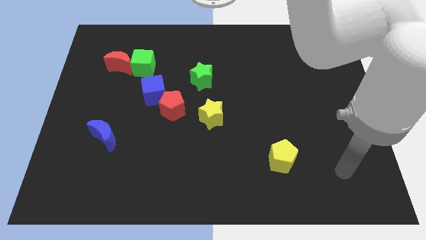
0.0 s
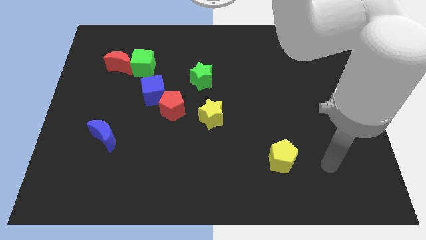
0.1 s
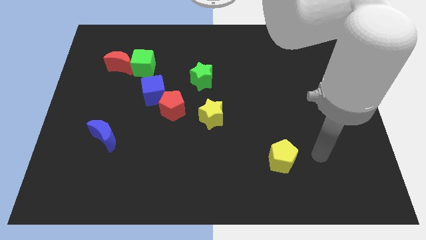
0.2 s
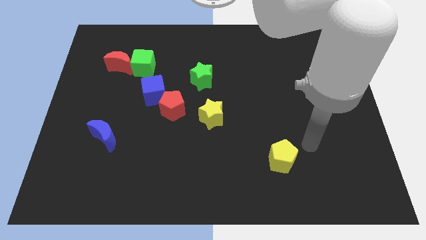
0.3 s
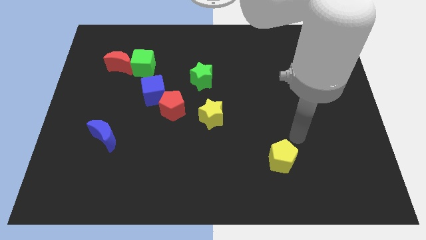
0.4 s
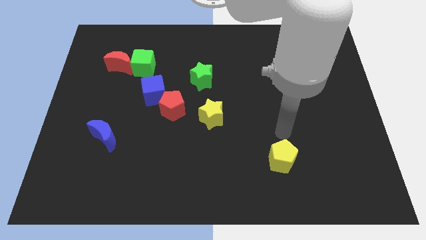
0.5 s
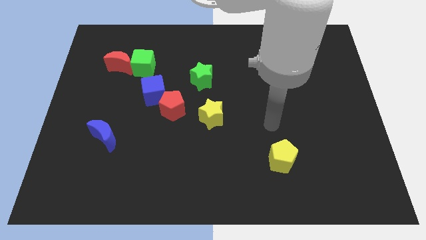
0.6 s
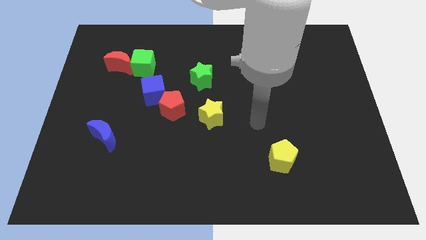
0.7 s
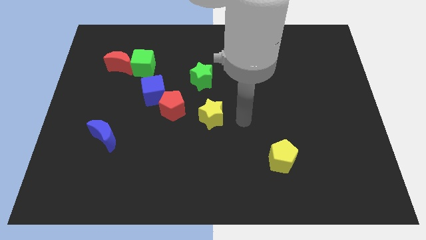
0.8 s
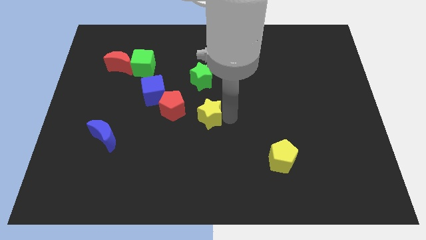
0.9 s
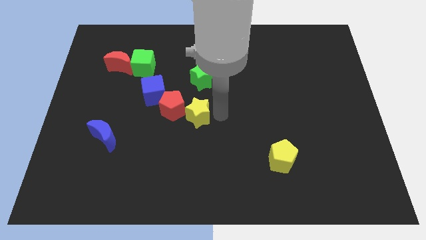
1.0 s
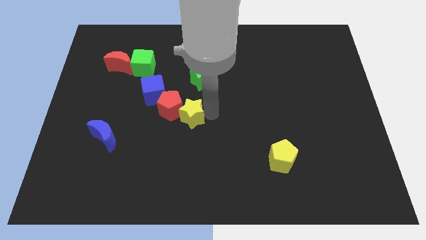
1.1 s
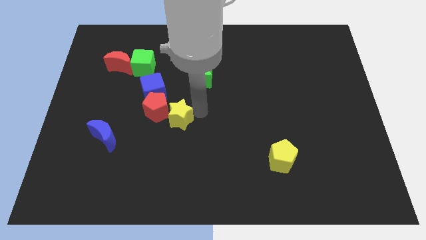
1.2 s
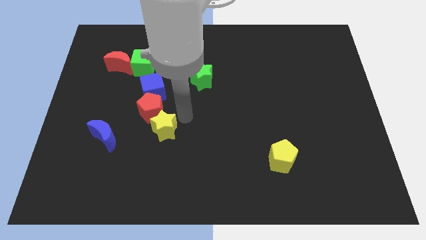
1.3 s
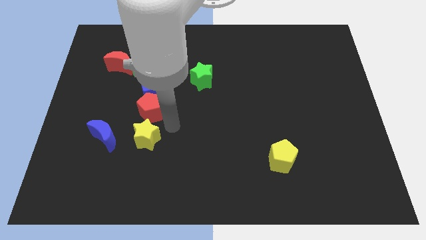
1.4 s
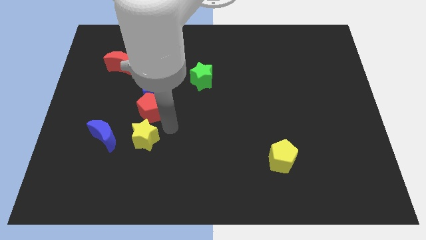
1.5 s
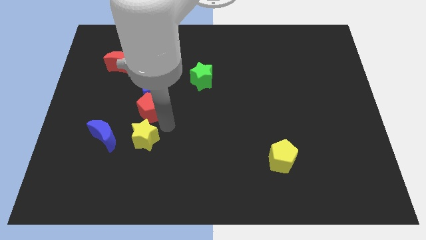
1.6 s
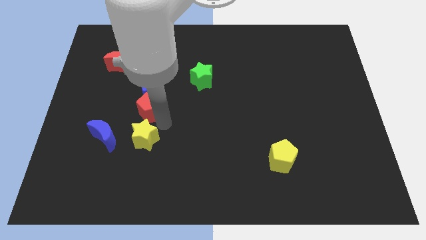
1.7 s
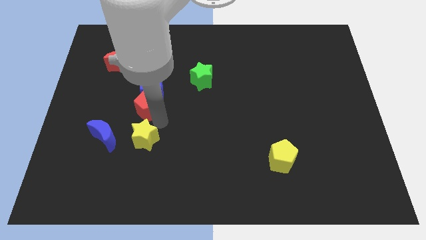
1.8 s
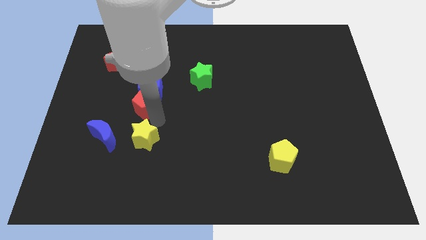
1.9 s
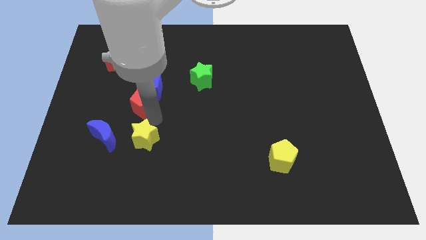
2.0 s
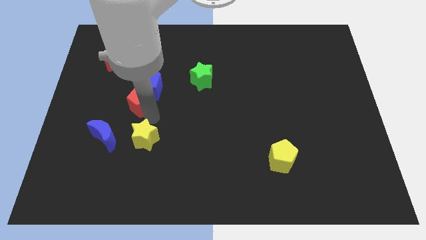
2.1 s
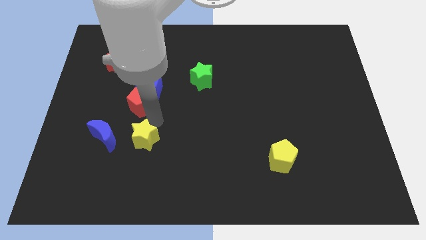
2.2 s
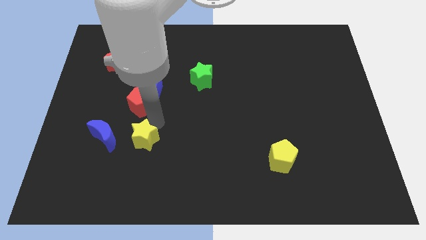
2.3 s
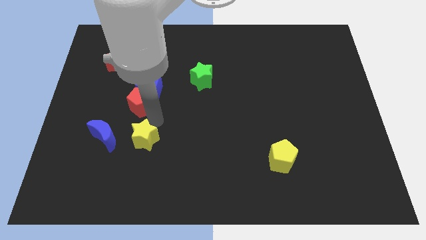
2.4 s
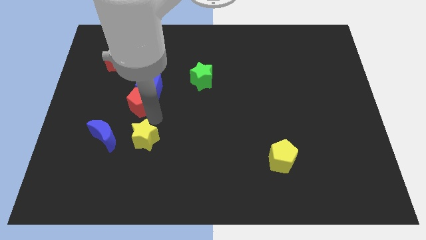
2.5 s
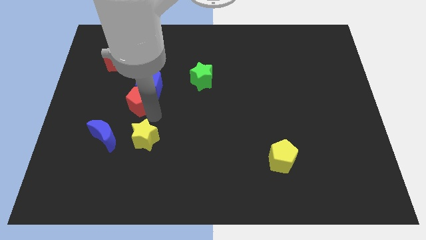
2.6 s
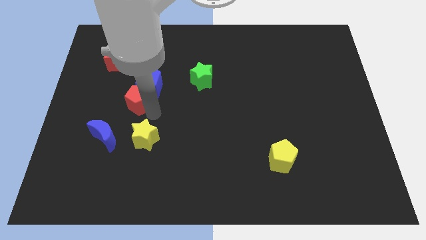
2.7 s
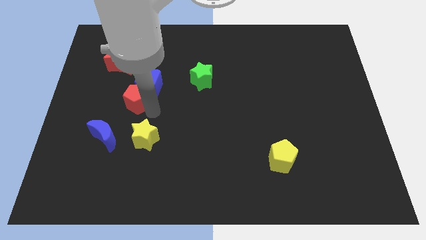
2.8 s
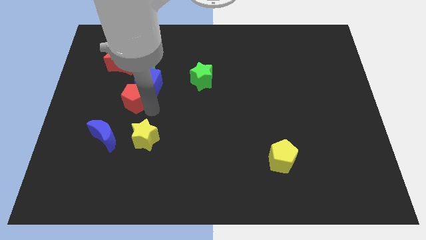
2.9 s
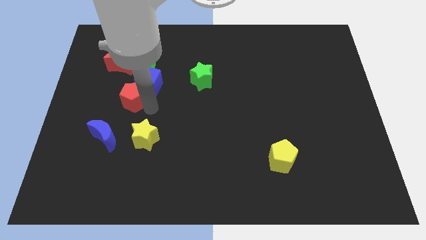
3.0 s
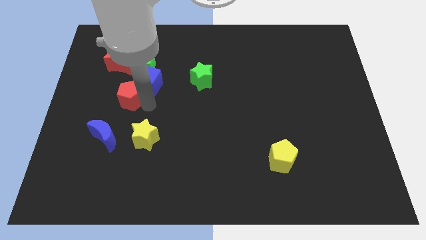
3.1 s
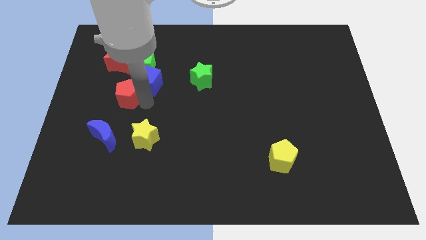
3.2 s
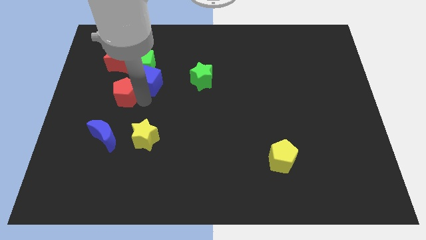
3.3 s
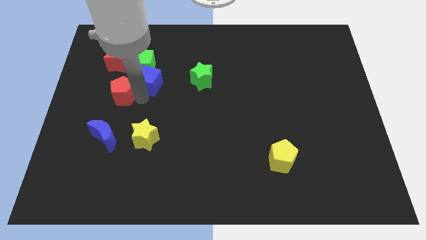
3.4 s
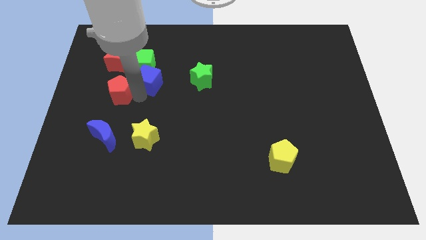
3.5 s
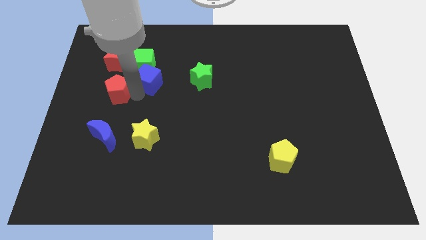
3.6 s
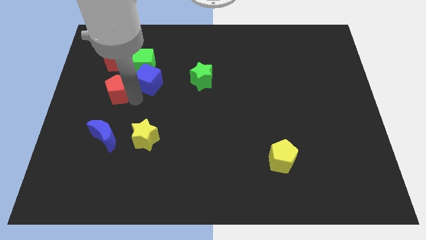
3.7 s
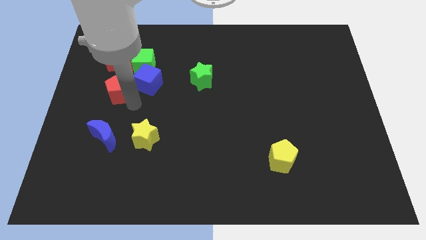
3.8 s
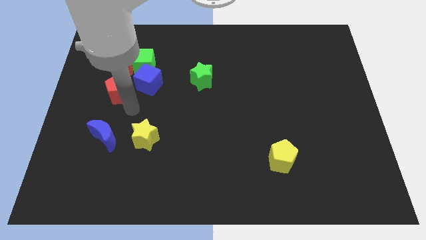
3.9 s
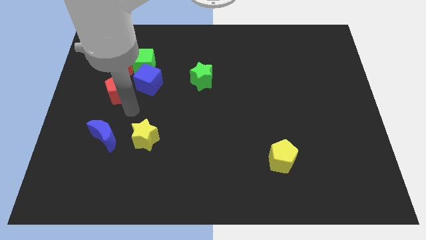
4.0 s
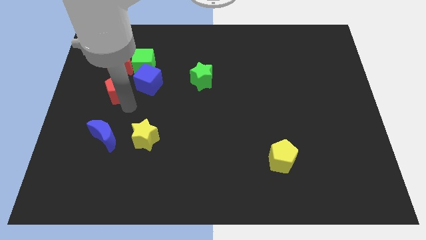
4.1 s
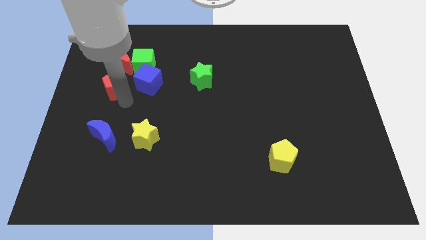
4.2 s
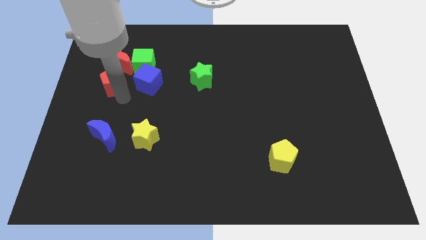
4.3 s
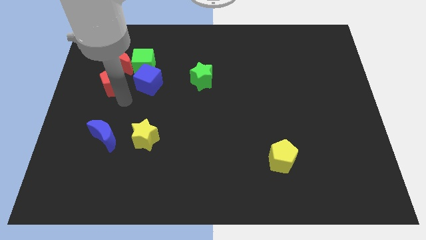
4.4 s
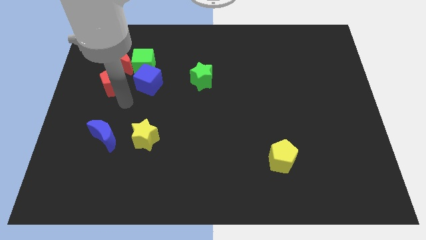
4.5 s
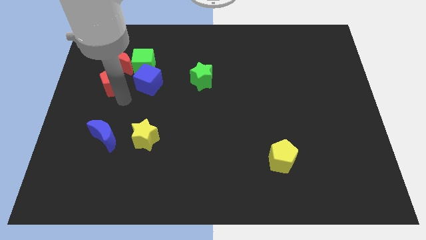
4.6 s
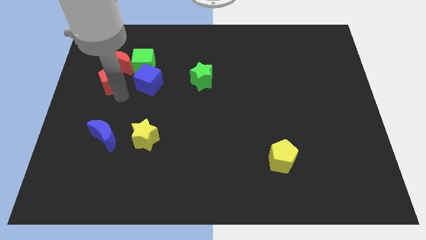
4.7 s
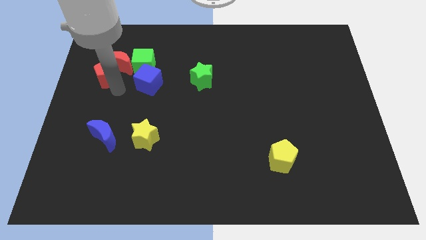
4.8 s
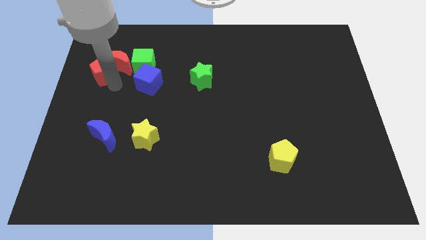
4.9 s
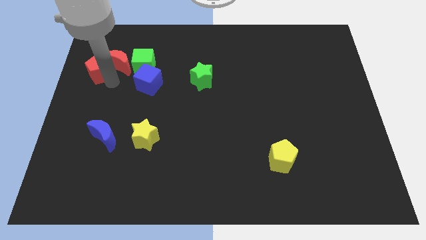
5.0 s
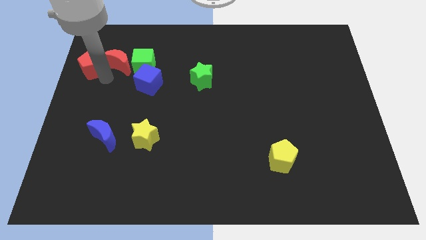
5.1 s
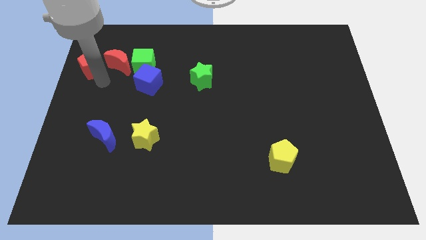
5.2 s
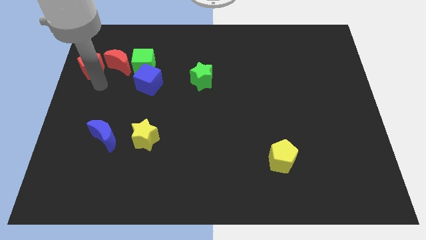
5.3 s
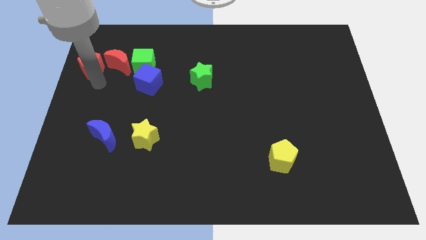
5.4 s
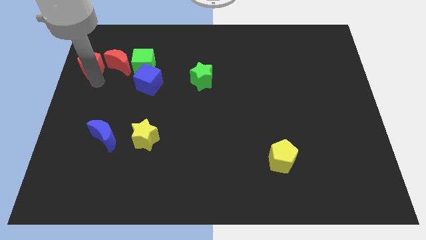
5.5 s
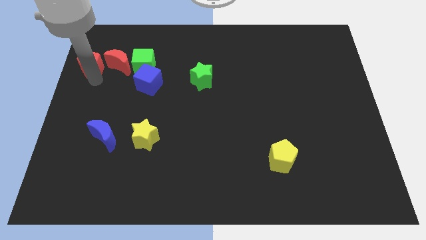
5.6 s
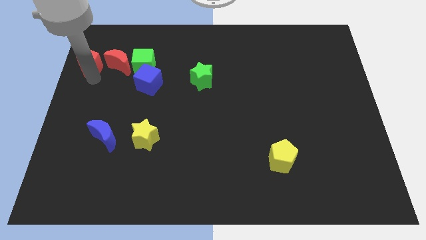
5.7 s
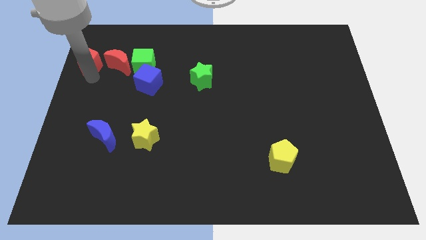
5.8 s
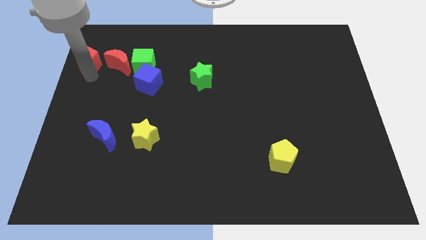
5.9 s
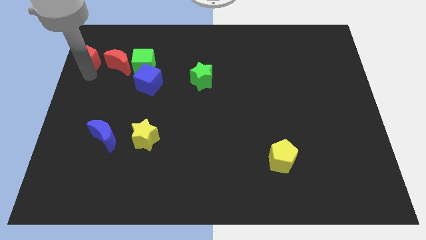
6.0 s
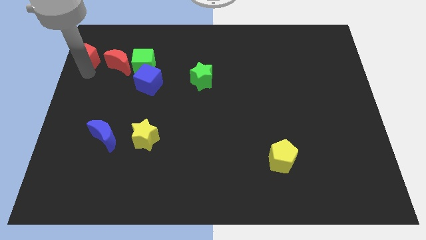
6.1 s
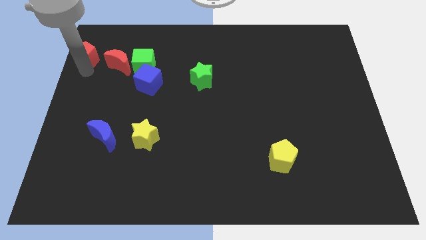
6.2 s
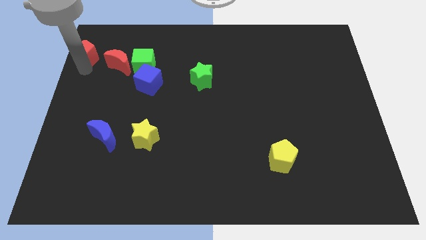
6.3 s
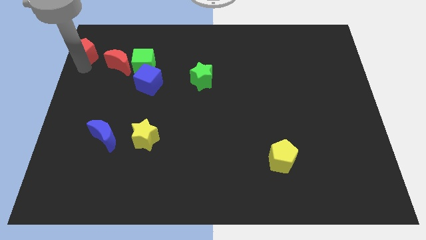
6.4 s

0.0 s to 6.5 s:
push the red pentagon to the upper left corner
